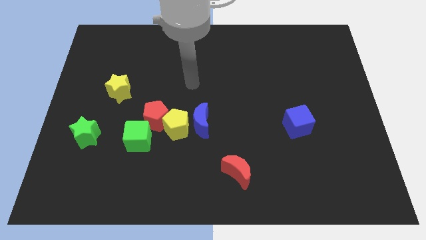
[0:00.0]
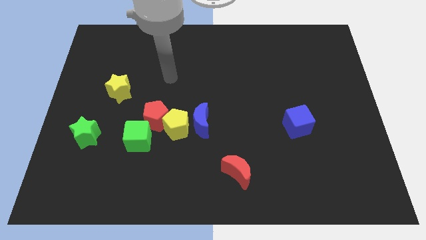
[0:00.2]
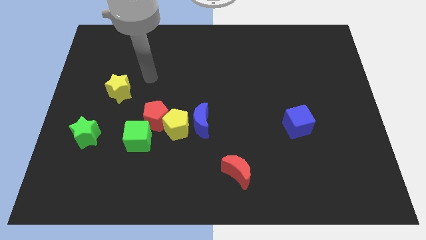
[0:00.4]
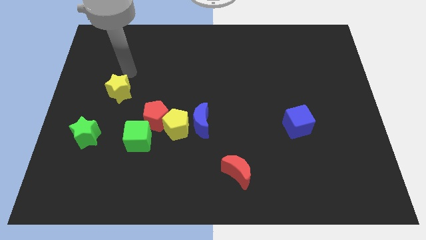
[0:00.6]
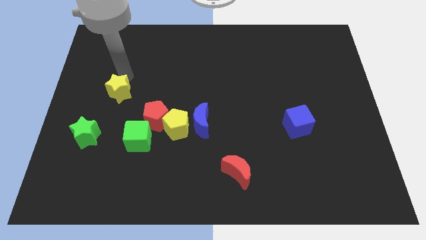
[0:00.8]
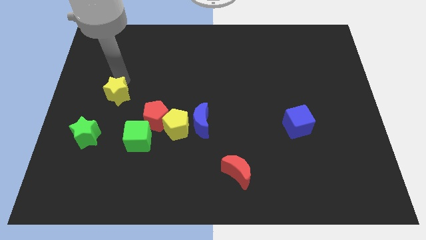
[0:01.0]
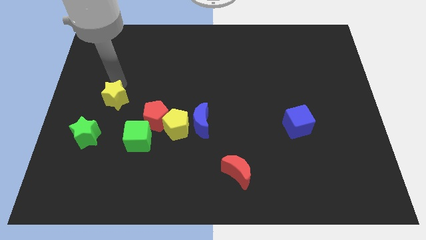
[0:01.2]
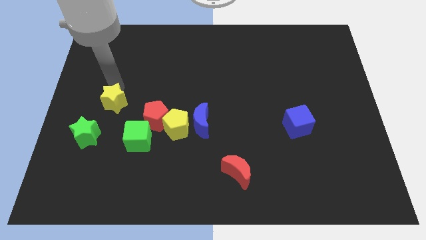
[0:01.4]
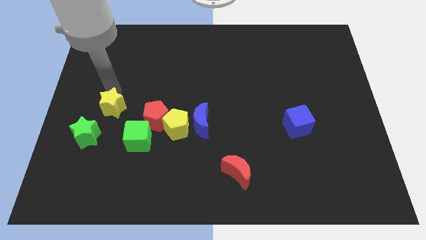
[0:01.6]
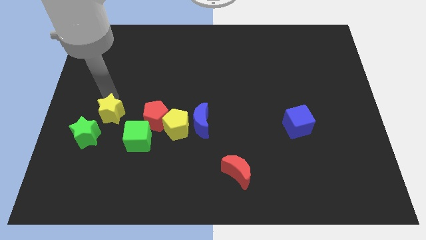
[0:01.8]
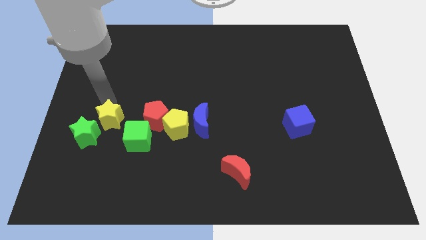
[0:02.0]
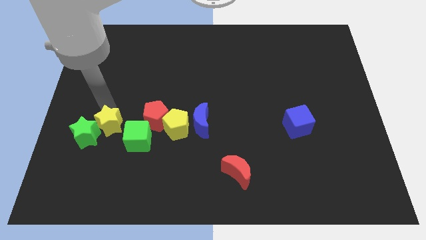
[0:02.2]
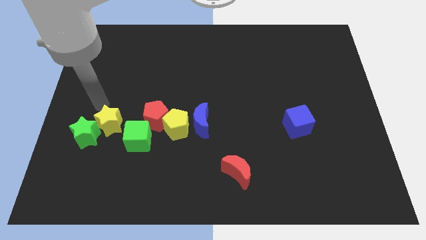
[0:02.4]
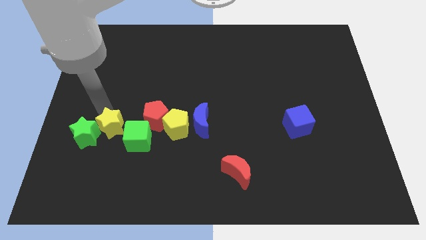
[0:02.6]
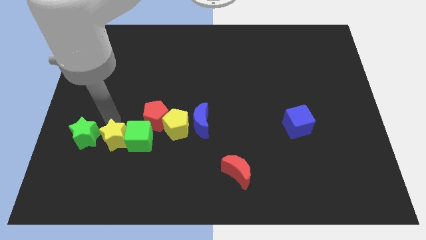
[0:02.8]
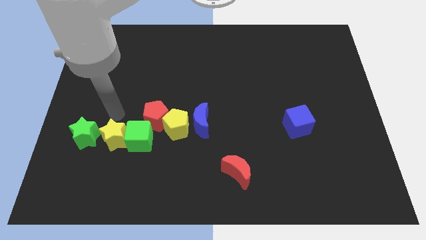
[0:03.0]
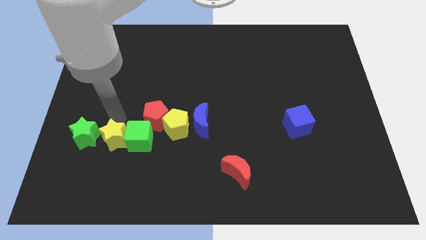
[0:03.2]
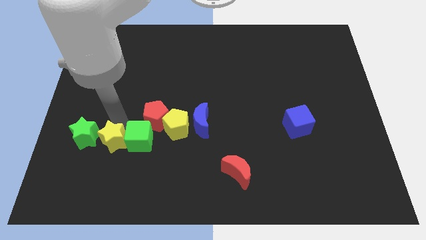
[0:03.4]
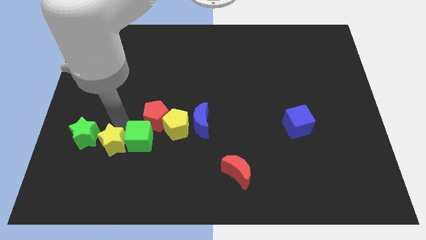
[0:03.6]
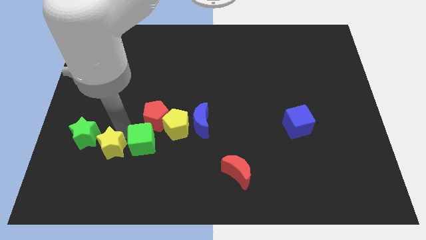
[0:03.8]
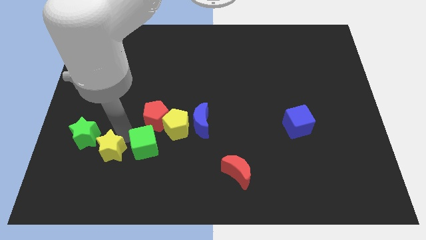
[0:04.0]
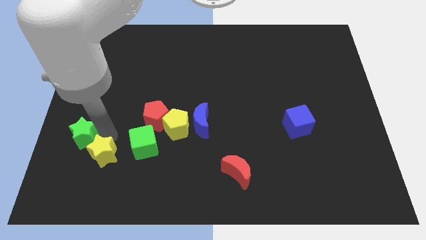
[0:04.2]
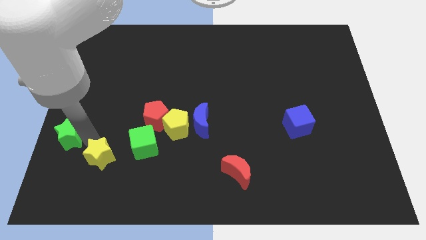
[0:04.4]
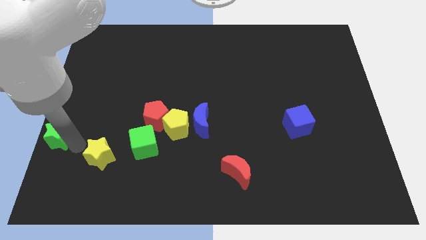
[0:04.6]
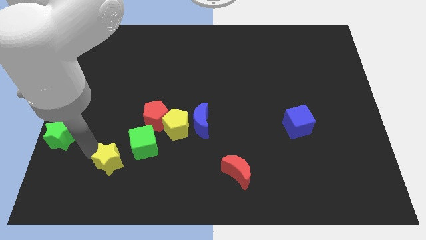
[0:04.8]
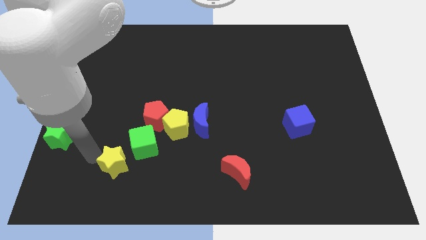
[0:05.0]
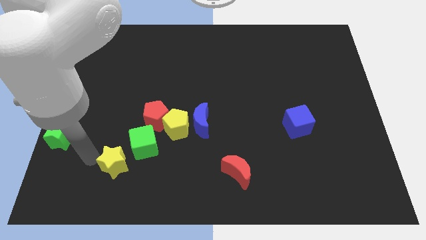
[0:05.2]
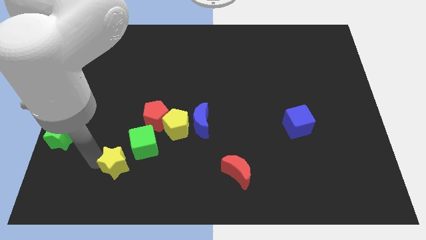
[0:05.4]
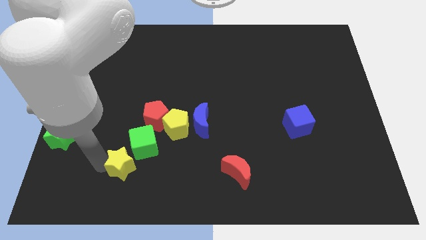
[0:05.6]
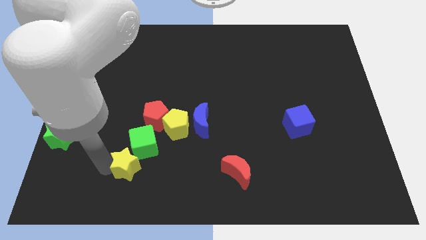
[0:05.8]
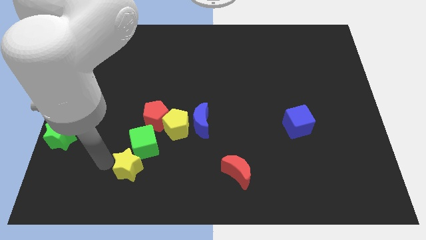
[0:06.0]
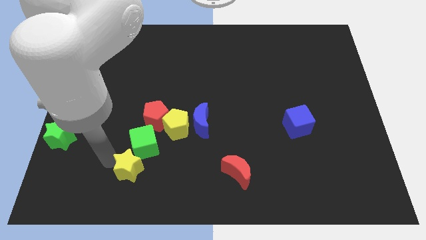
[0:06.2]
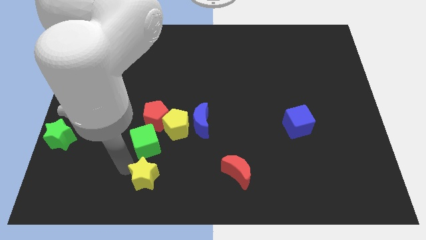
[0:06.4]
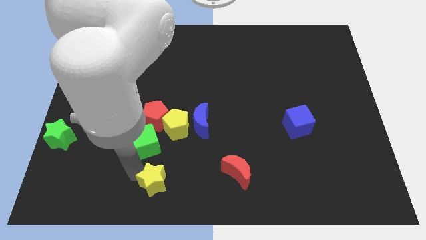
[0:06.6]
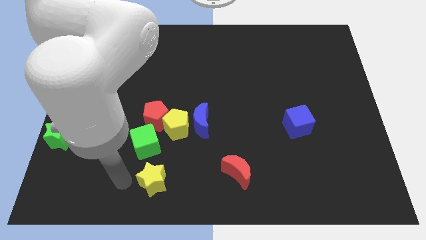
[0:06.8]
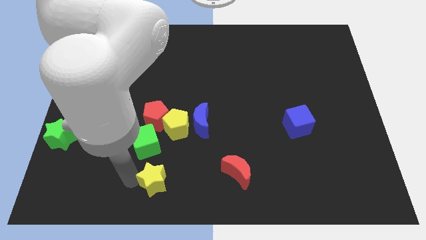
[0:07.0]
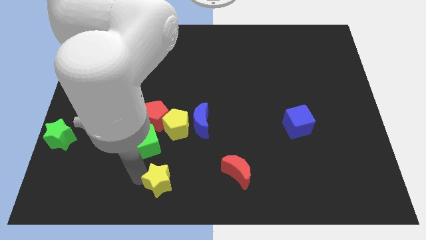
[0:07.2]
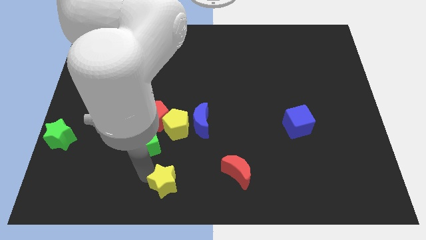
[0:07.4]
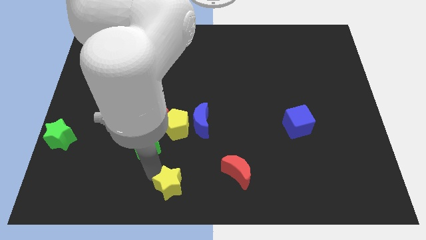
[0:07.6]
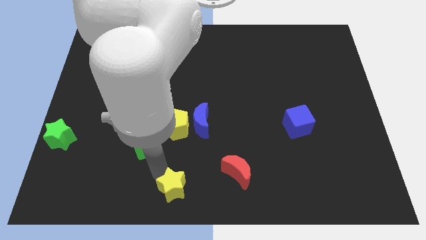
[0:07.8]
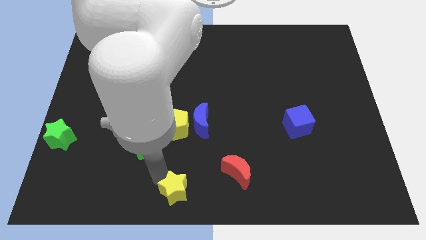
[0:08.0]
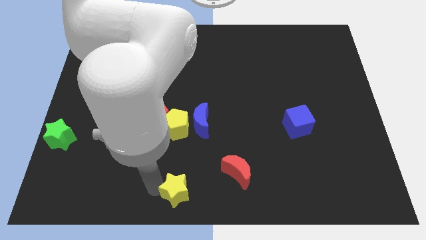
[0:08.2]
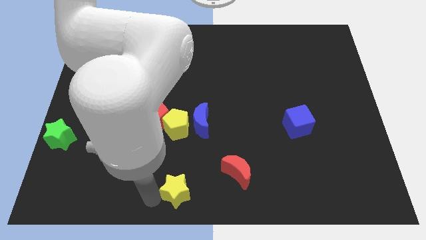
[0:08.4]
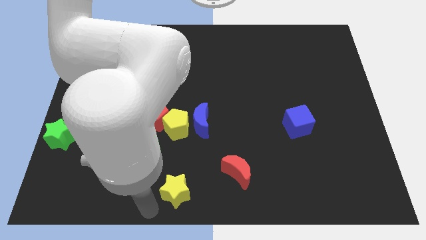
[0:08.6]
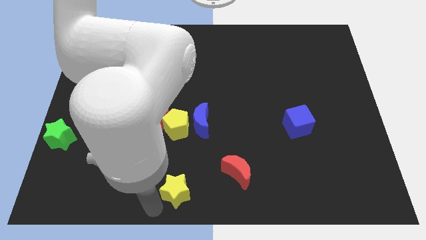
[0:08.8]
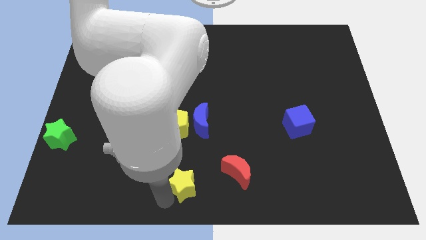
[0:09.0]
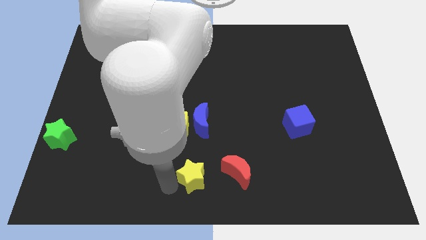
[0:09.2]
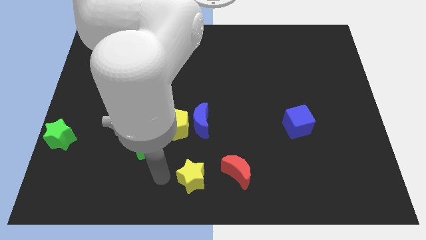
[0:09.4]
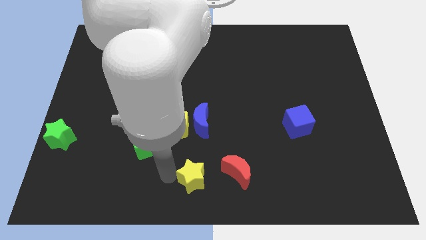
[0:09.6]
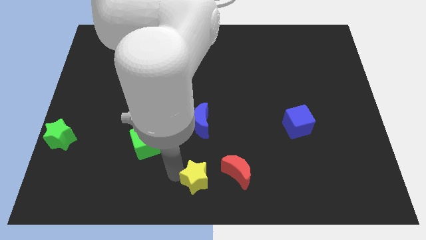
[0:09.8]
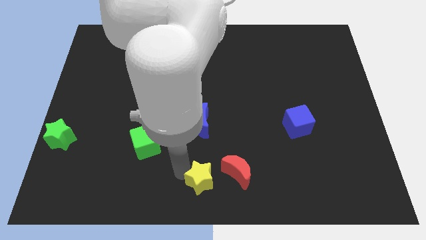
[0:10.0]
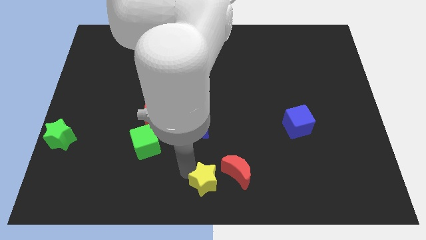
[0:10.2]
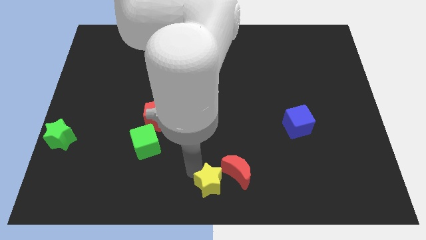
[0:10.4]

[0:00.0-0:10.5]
move the yellow star close to the red moon

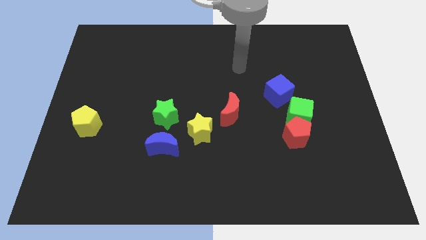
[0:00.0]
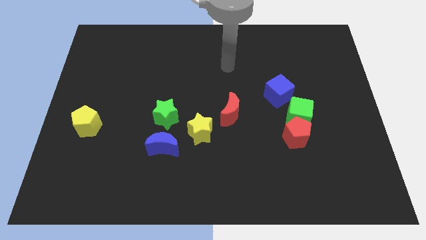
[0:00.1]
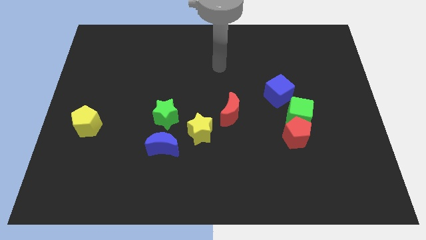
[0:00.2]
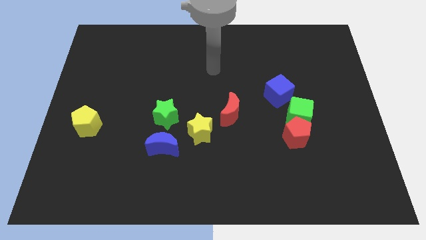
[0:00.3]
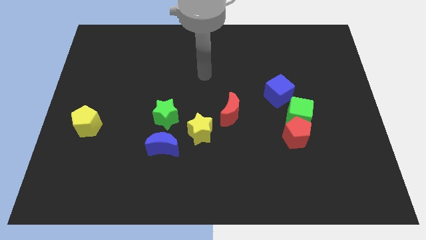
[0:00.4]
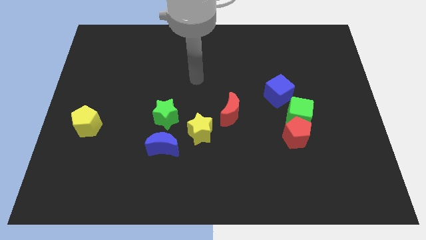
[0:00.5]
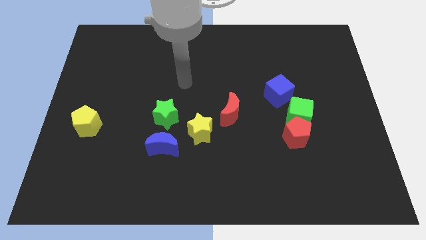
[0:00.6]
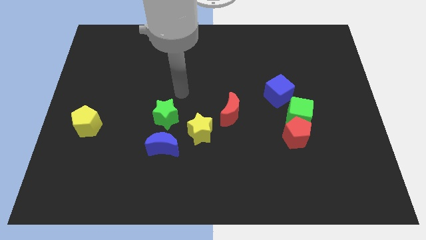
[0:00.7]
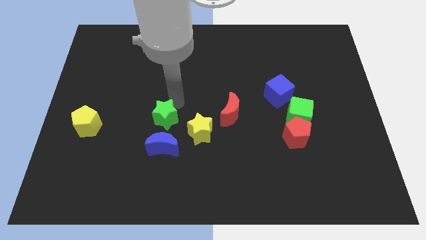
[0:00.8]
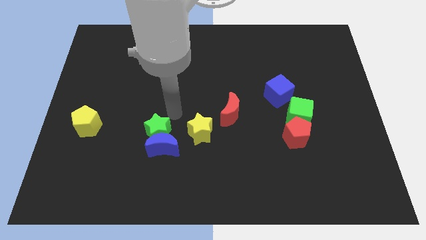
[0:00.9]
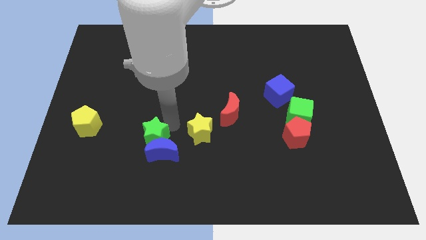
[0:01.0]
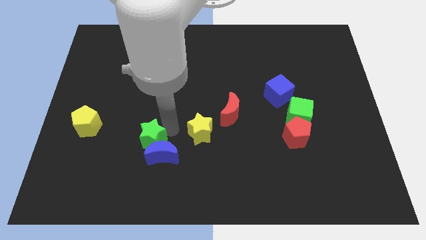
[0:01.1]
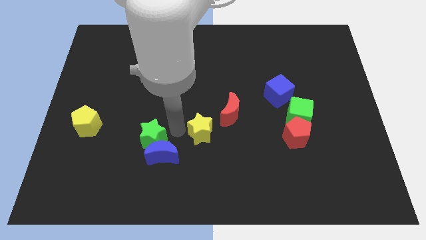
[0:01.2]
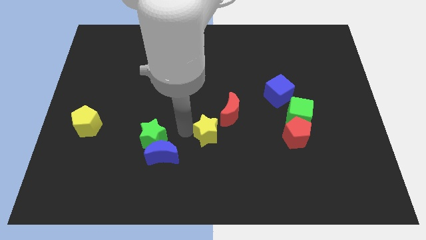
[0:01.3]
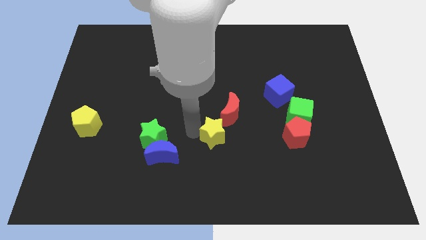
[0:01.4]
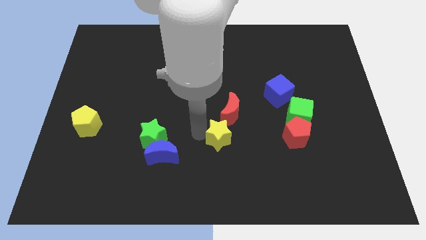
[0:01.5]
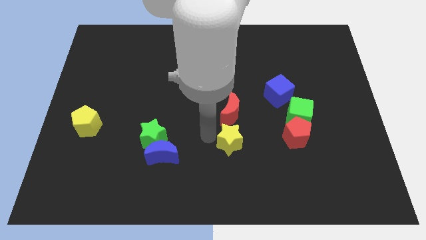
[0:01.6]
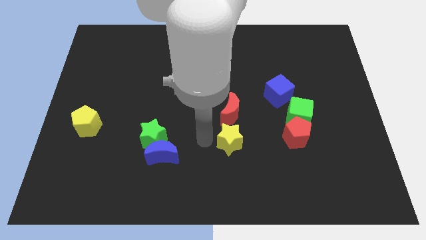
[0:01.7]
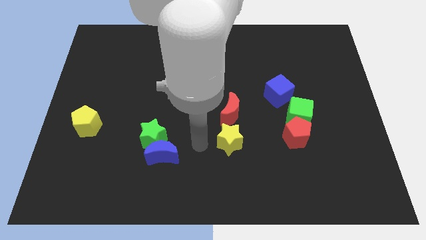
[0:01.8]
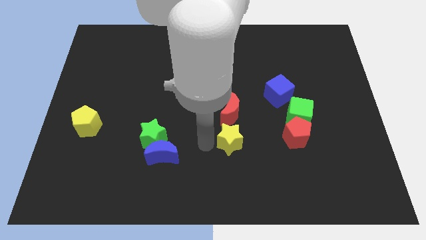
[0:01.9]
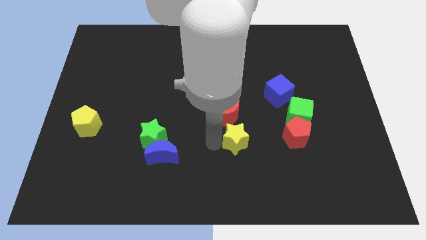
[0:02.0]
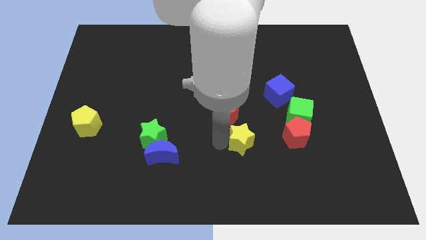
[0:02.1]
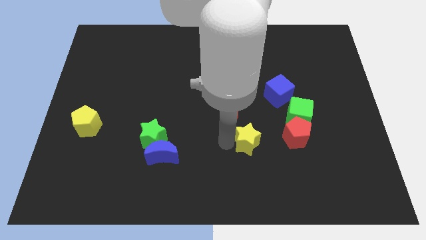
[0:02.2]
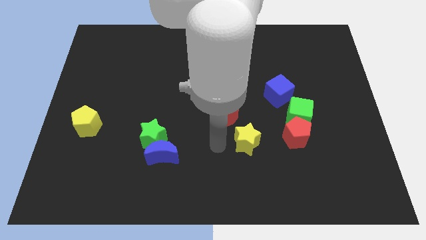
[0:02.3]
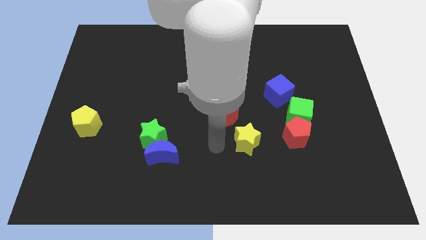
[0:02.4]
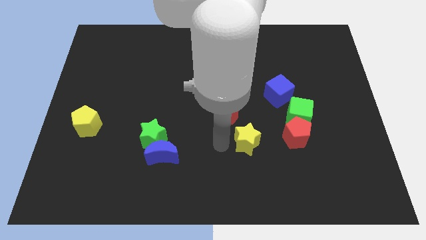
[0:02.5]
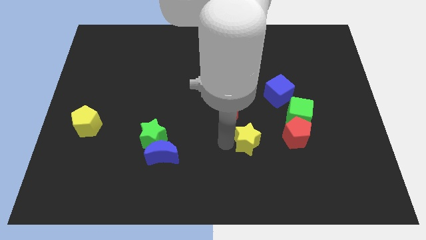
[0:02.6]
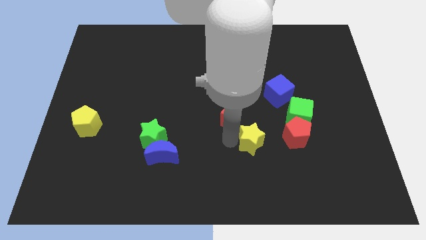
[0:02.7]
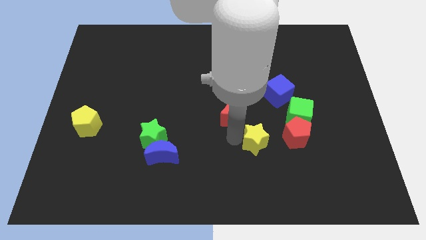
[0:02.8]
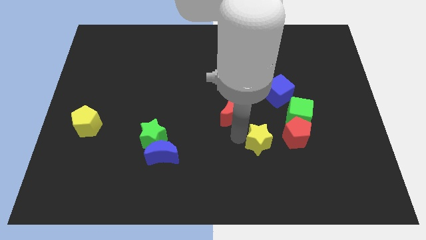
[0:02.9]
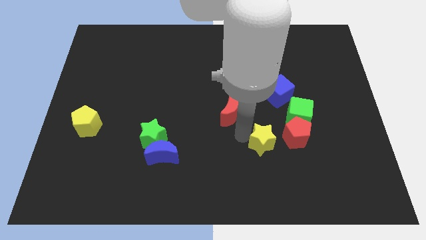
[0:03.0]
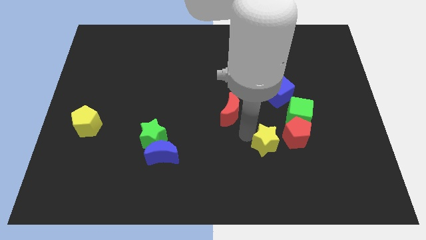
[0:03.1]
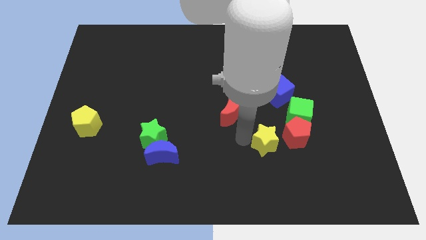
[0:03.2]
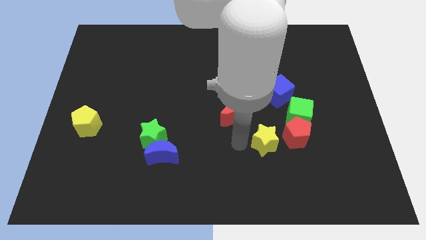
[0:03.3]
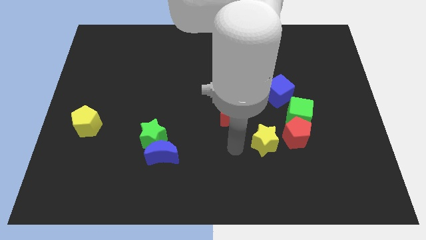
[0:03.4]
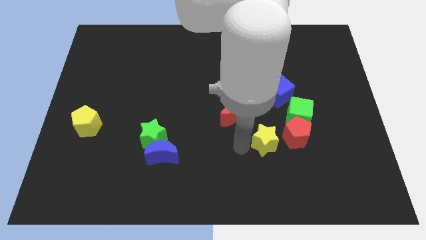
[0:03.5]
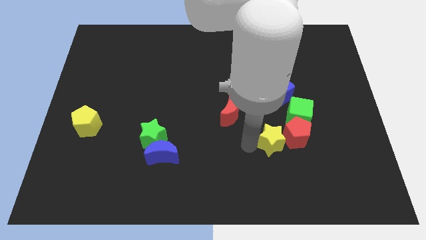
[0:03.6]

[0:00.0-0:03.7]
push the yellow star next to the red pentagon
